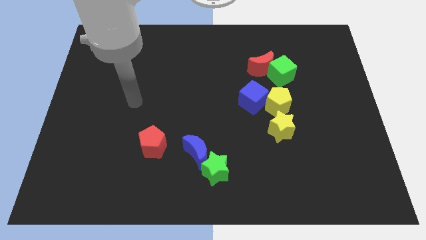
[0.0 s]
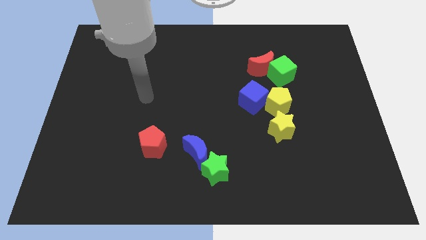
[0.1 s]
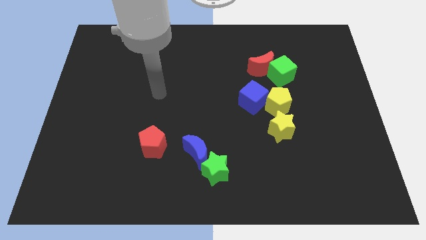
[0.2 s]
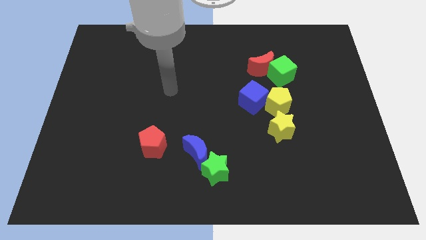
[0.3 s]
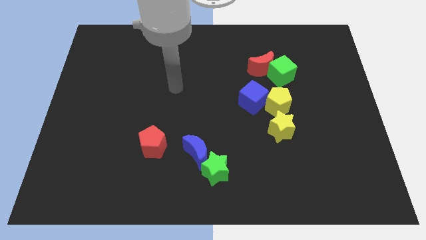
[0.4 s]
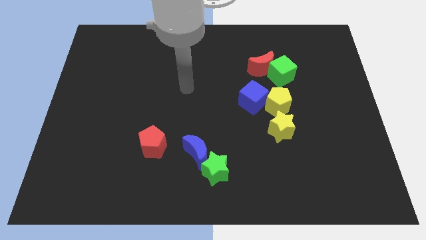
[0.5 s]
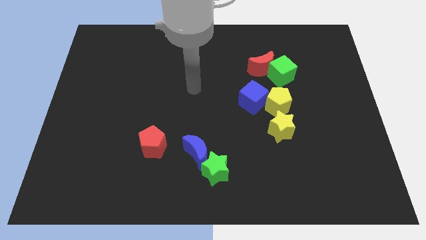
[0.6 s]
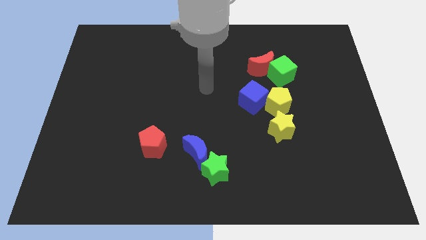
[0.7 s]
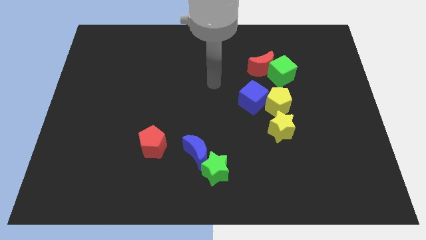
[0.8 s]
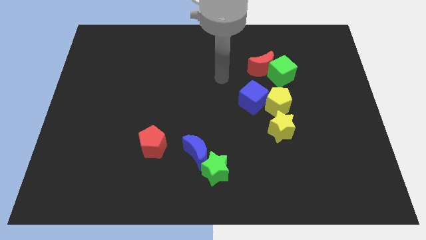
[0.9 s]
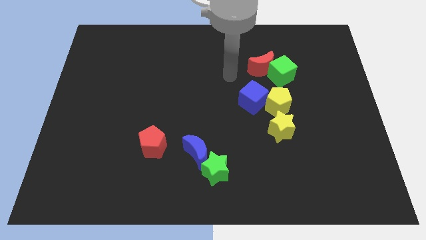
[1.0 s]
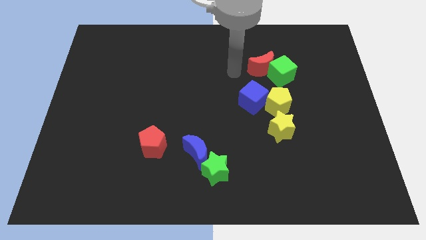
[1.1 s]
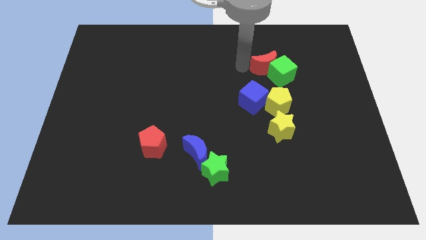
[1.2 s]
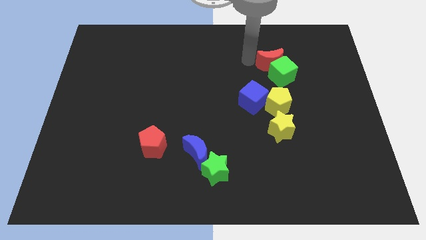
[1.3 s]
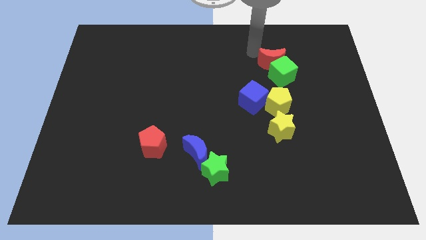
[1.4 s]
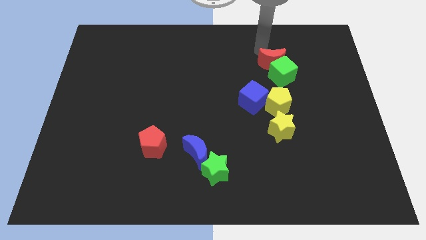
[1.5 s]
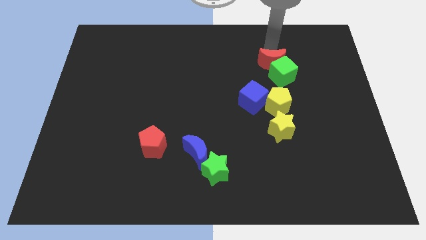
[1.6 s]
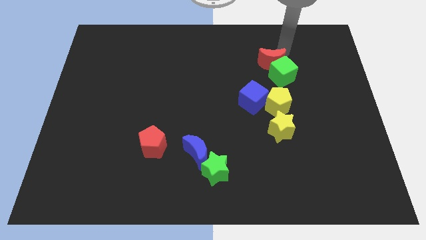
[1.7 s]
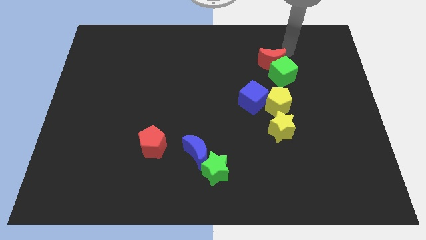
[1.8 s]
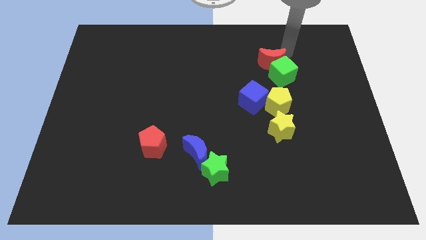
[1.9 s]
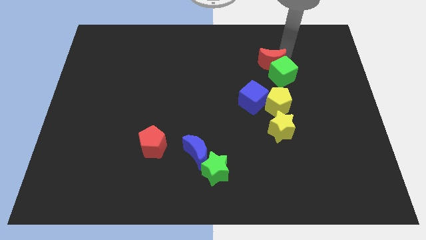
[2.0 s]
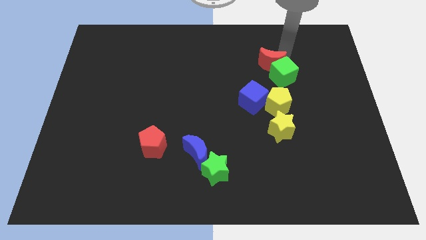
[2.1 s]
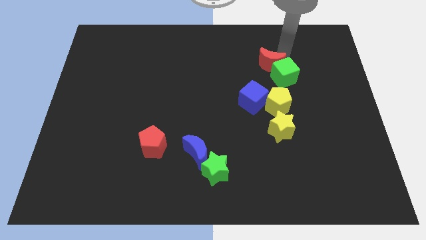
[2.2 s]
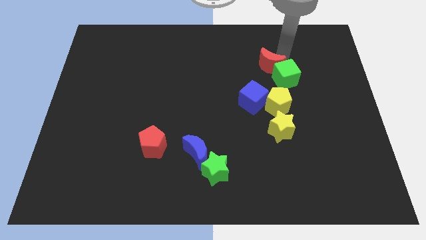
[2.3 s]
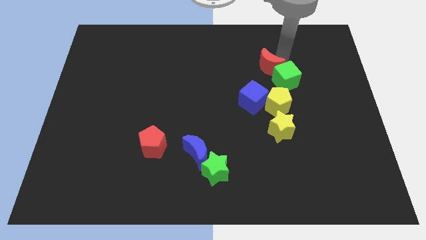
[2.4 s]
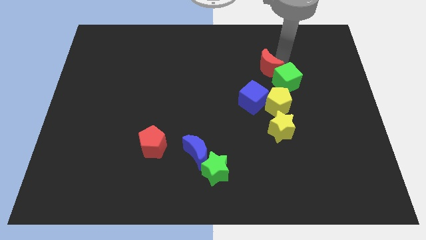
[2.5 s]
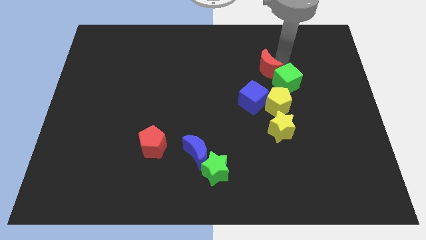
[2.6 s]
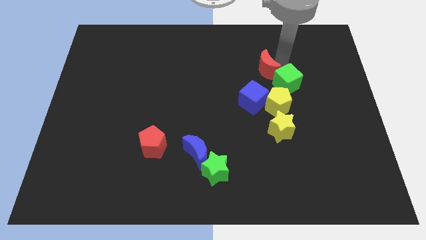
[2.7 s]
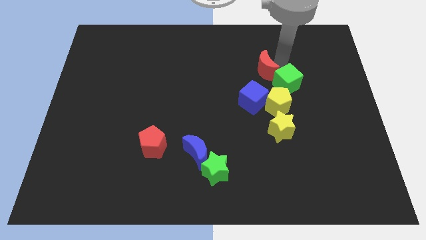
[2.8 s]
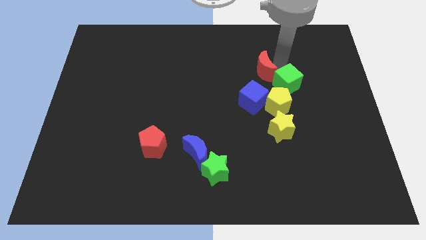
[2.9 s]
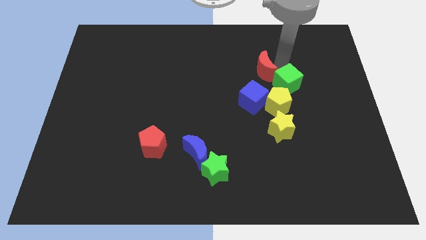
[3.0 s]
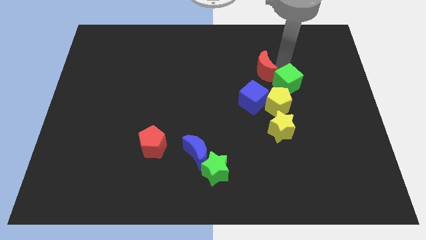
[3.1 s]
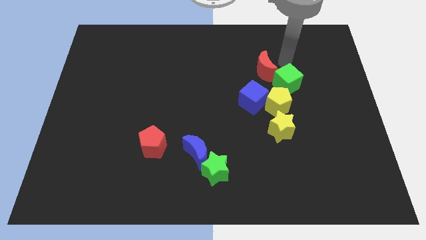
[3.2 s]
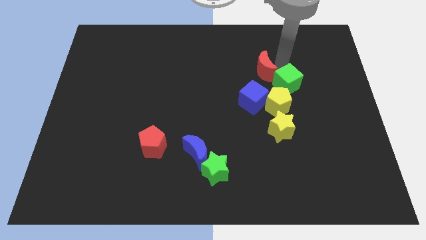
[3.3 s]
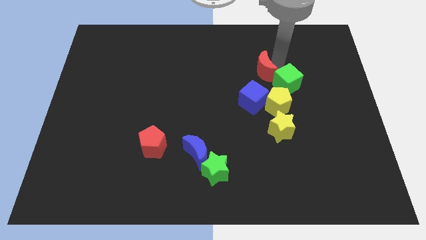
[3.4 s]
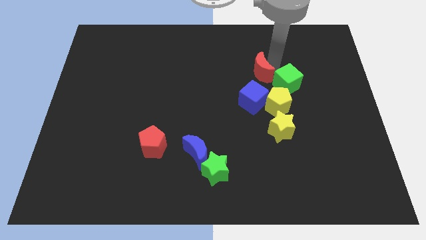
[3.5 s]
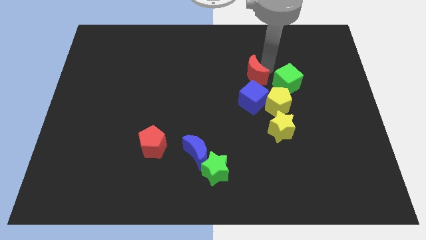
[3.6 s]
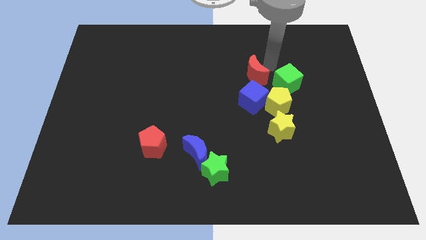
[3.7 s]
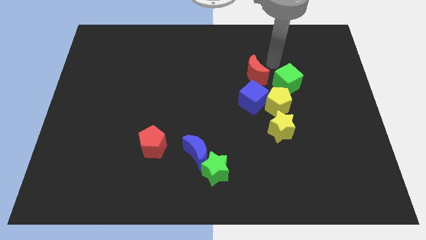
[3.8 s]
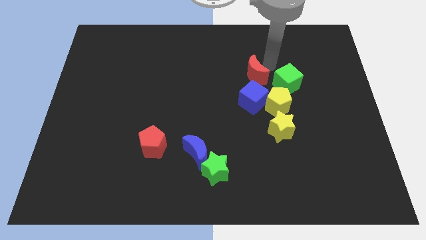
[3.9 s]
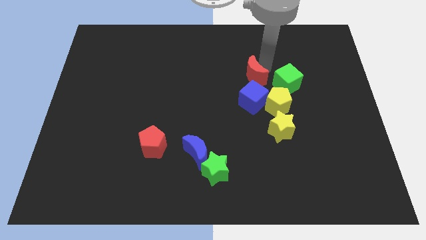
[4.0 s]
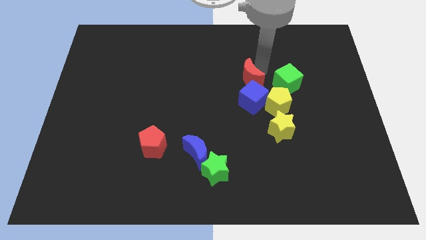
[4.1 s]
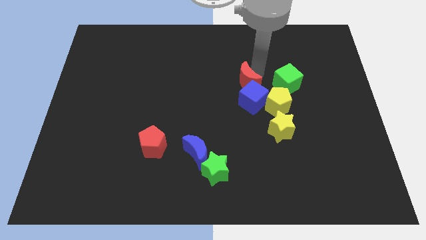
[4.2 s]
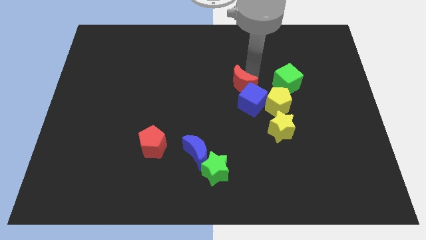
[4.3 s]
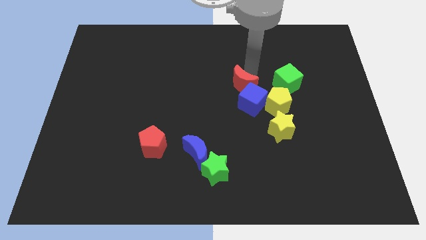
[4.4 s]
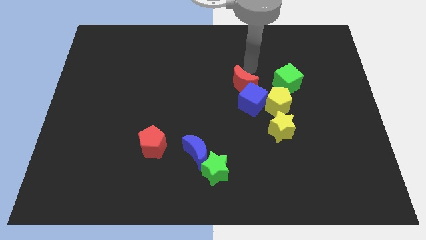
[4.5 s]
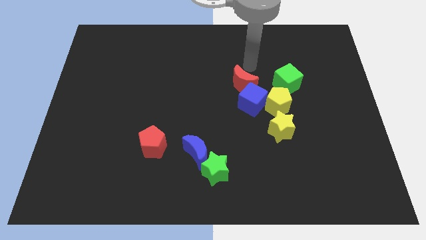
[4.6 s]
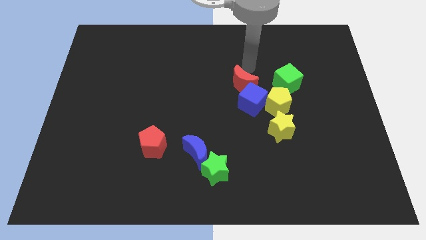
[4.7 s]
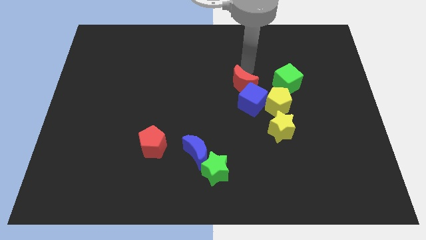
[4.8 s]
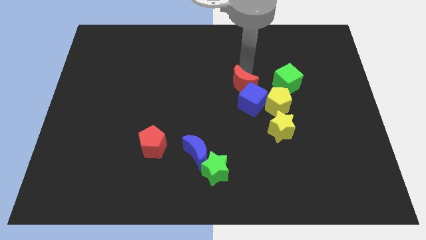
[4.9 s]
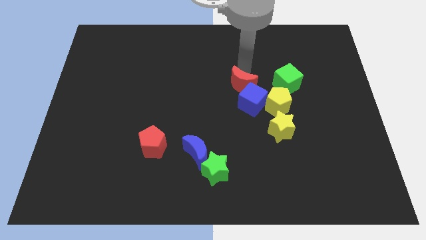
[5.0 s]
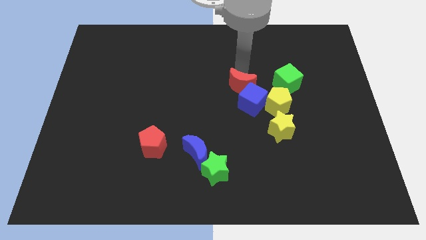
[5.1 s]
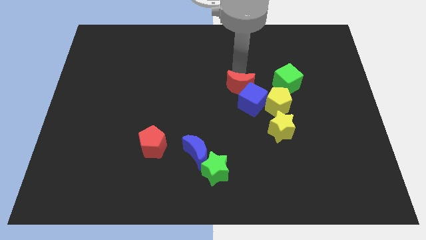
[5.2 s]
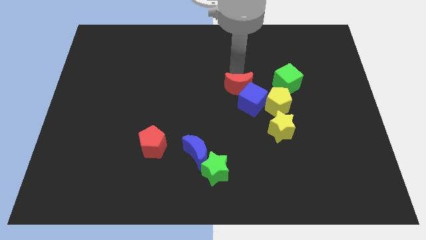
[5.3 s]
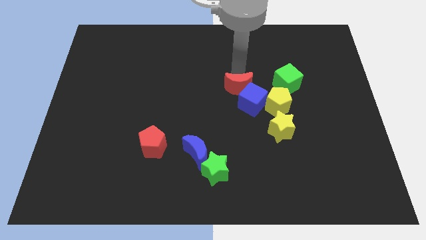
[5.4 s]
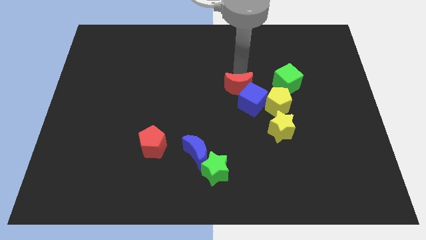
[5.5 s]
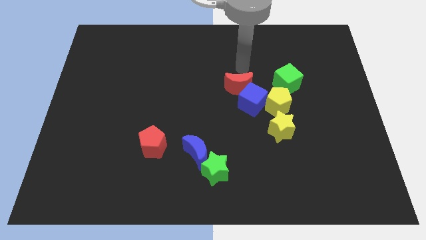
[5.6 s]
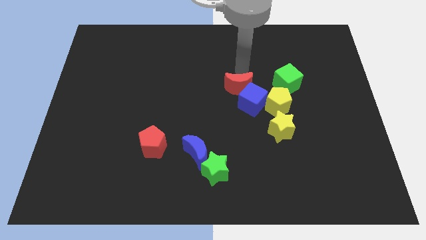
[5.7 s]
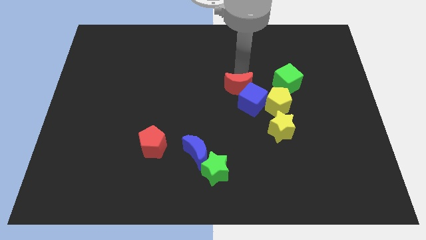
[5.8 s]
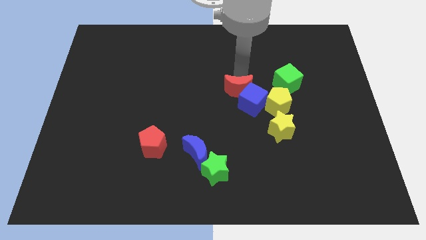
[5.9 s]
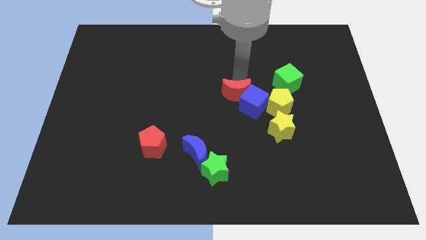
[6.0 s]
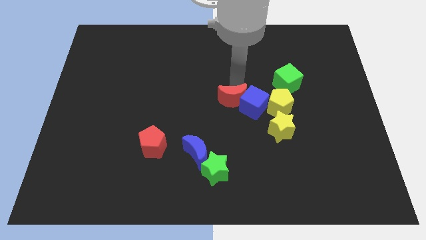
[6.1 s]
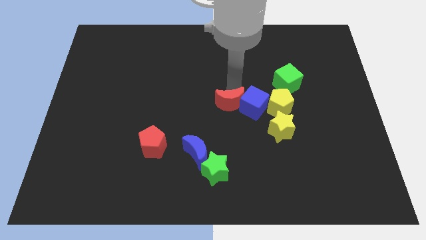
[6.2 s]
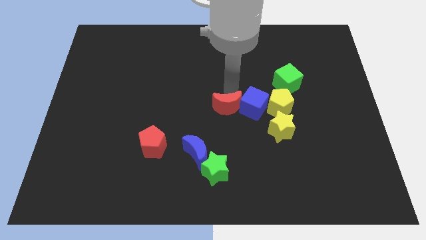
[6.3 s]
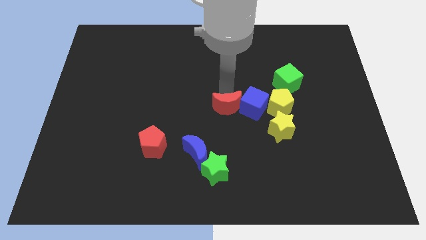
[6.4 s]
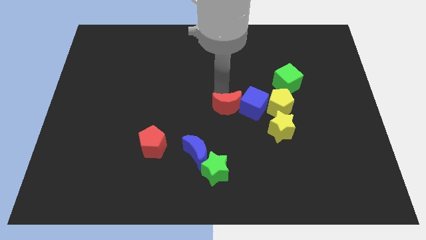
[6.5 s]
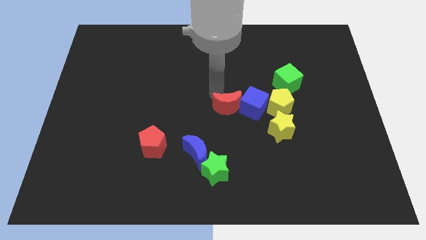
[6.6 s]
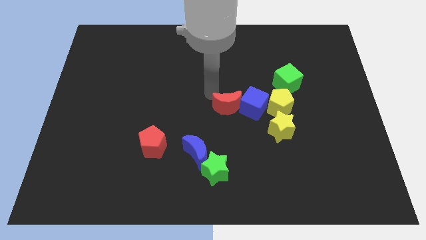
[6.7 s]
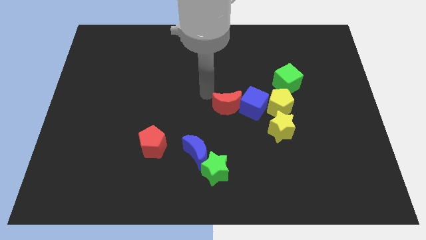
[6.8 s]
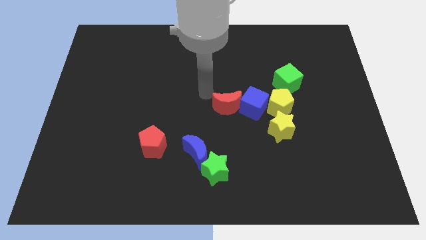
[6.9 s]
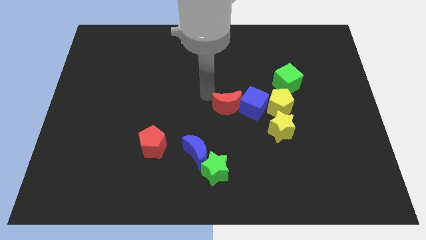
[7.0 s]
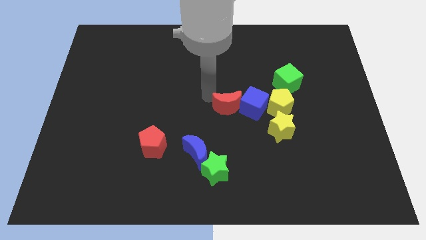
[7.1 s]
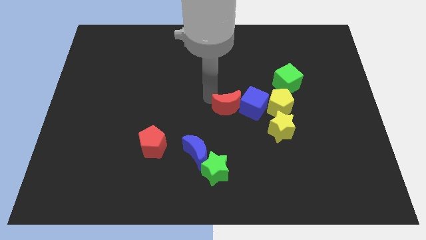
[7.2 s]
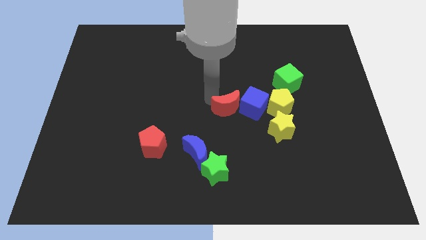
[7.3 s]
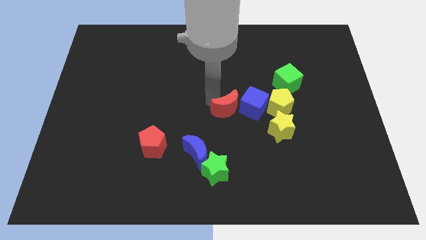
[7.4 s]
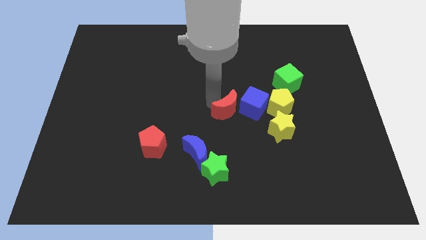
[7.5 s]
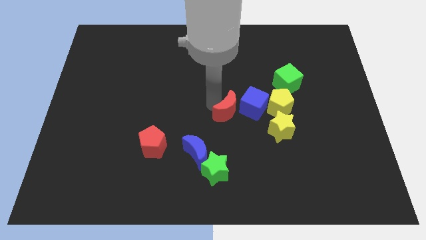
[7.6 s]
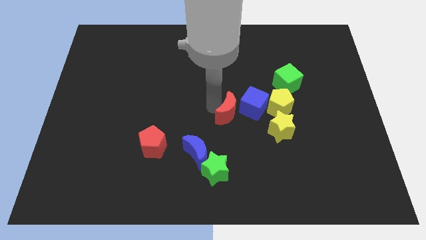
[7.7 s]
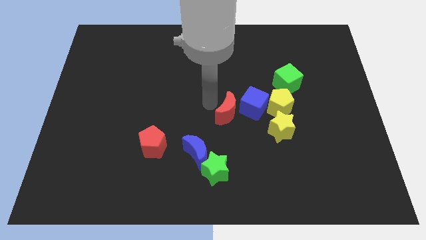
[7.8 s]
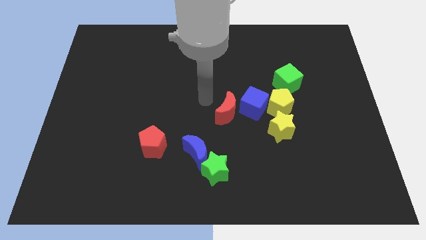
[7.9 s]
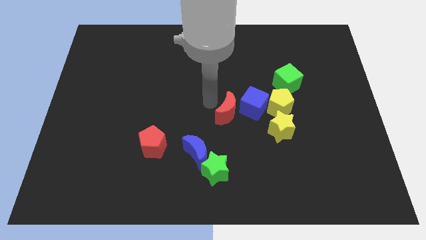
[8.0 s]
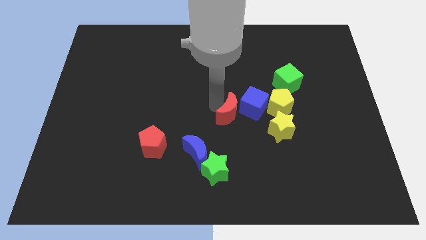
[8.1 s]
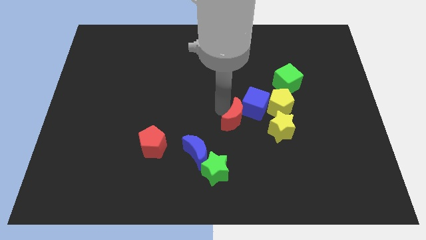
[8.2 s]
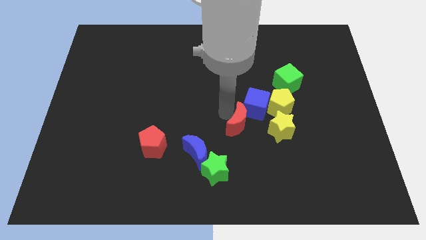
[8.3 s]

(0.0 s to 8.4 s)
move the red moon to the bottom side of the blue cube
